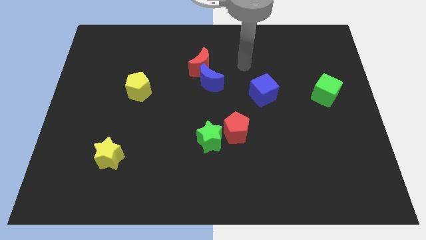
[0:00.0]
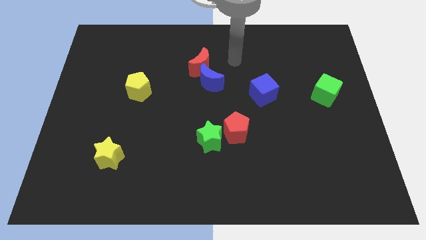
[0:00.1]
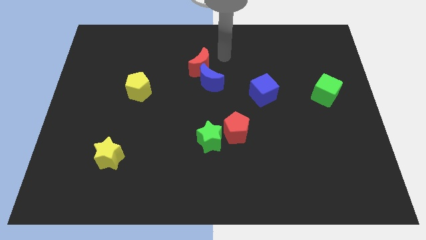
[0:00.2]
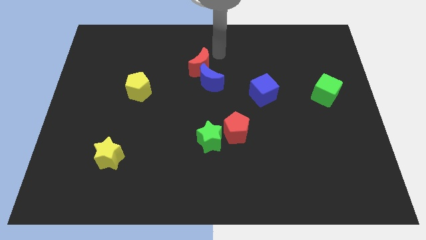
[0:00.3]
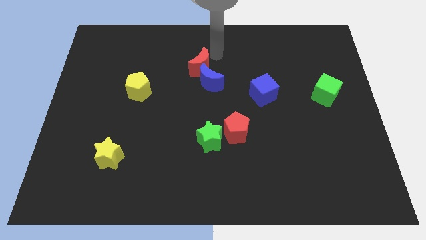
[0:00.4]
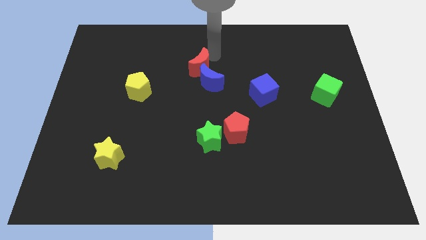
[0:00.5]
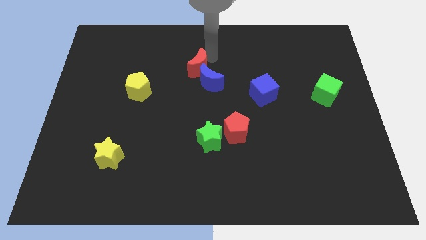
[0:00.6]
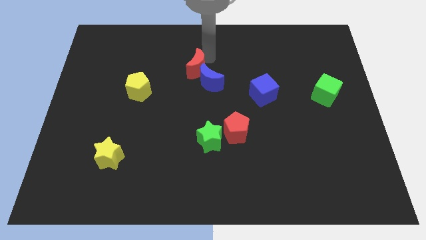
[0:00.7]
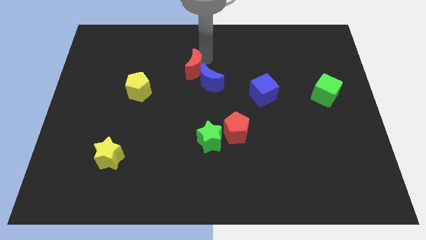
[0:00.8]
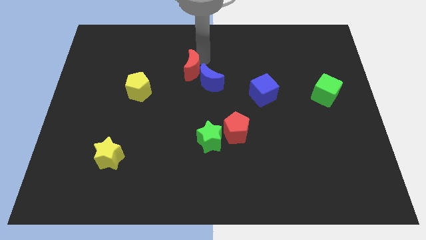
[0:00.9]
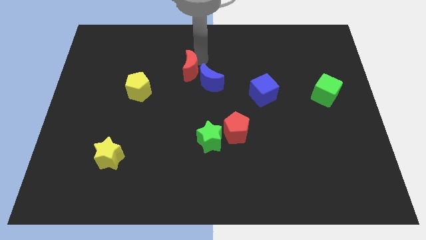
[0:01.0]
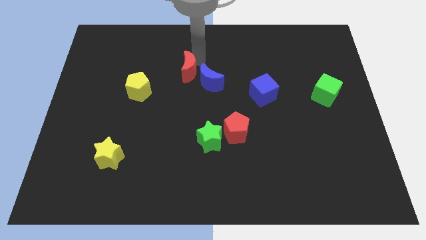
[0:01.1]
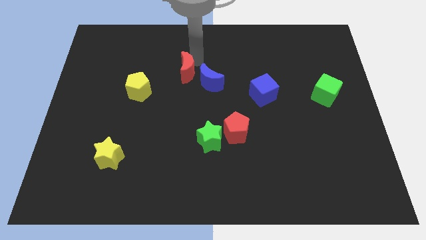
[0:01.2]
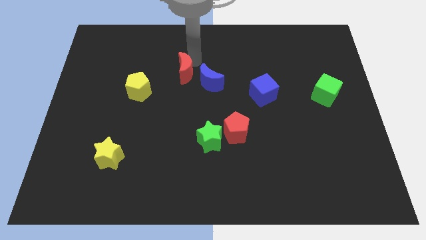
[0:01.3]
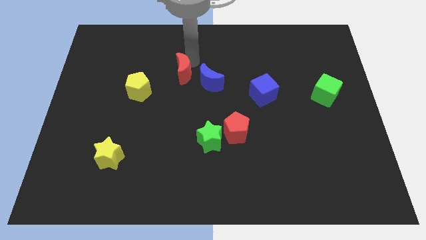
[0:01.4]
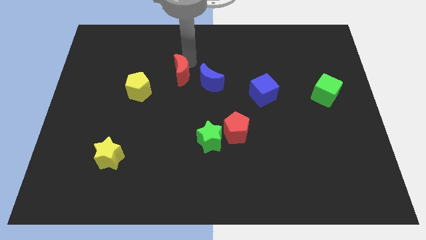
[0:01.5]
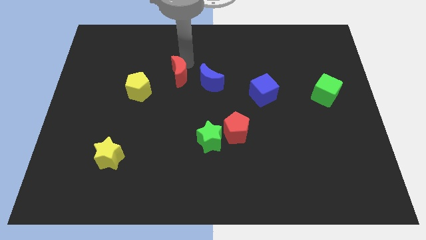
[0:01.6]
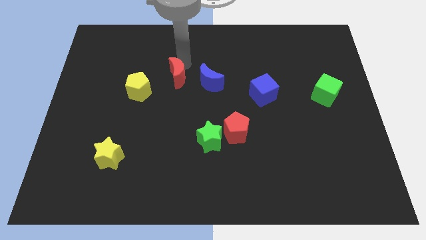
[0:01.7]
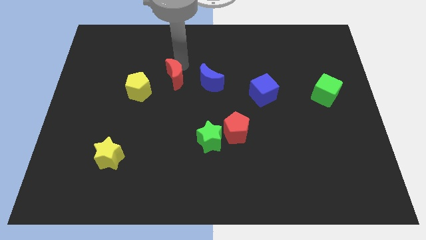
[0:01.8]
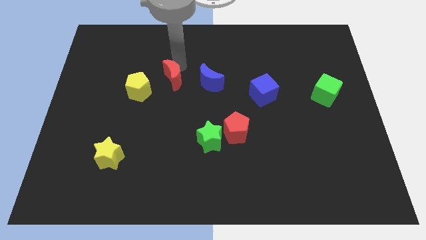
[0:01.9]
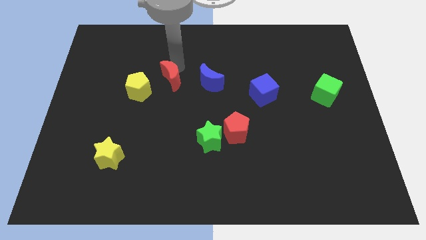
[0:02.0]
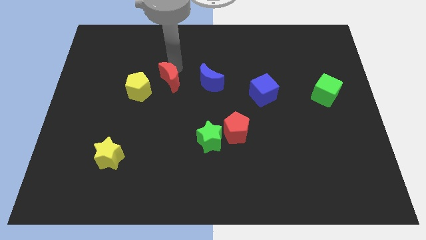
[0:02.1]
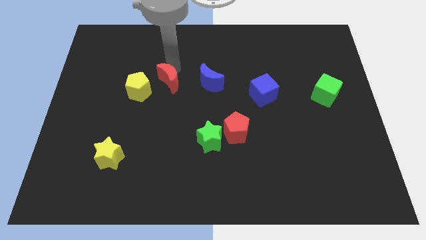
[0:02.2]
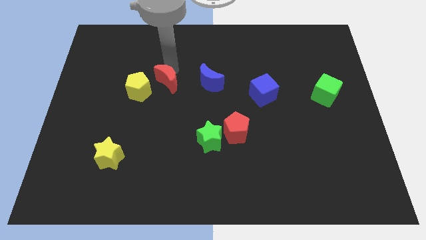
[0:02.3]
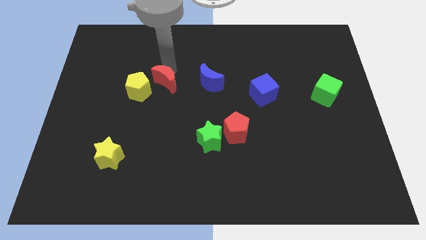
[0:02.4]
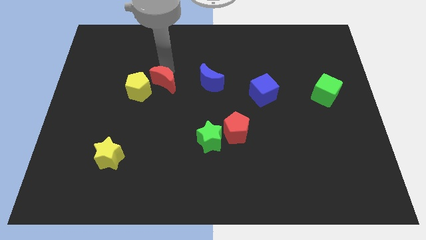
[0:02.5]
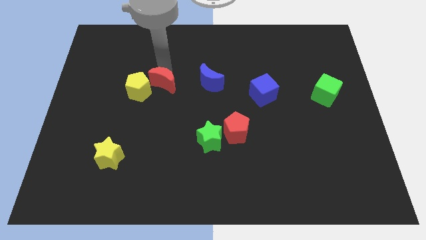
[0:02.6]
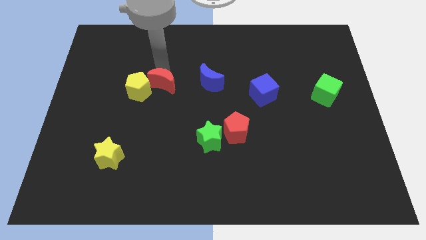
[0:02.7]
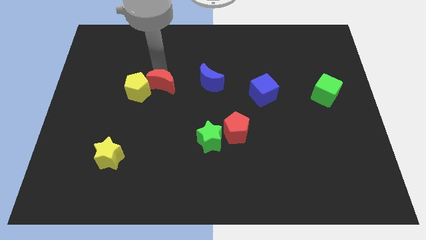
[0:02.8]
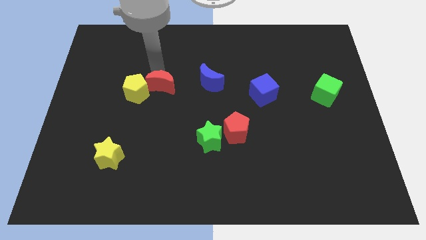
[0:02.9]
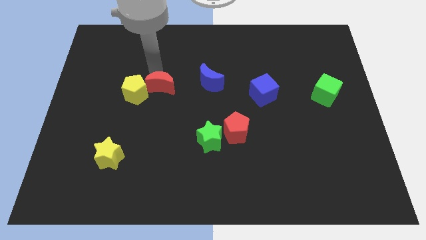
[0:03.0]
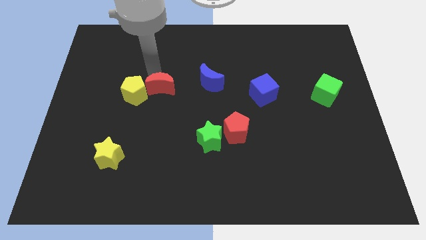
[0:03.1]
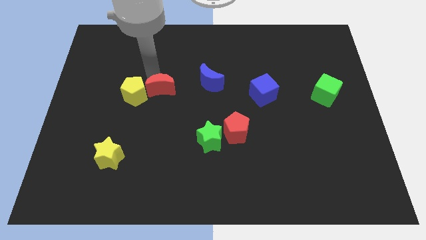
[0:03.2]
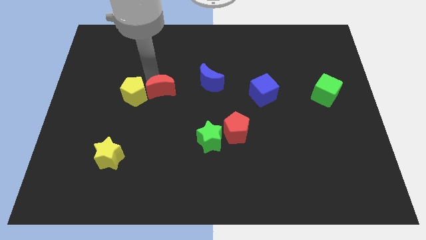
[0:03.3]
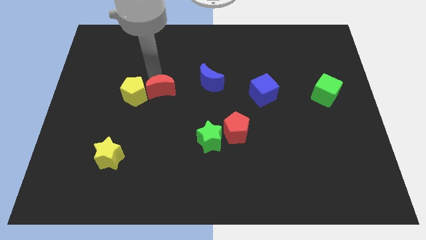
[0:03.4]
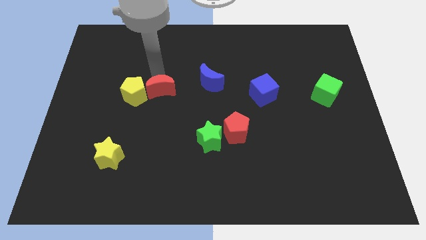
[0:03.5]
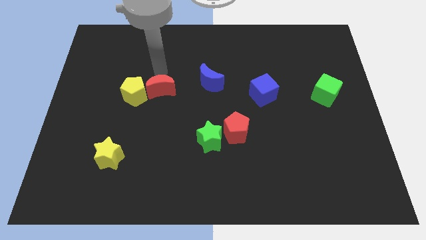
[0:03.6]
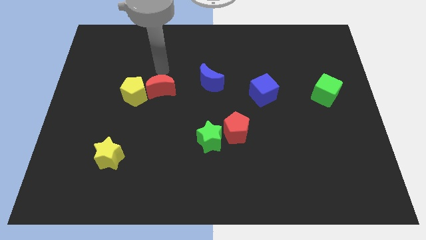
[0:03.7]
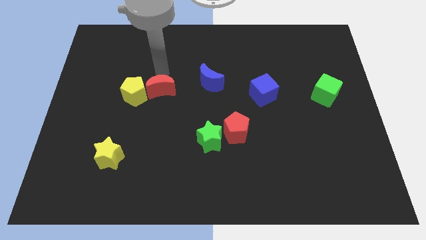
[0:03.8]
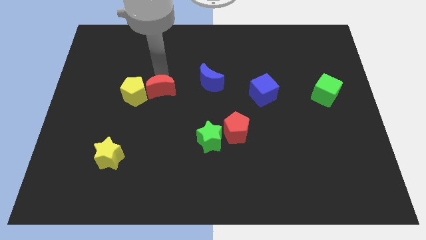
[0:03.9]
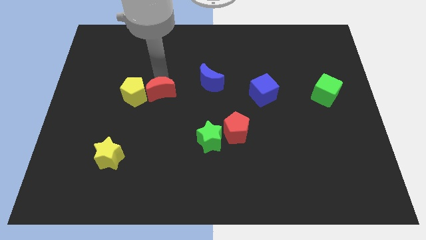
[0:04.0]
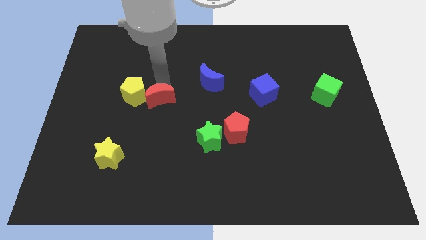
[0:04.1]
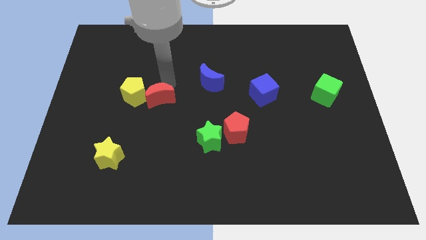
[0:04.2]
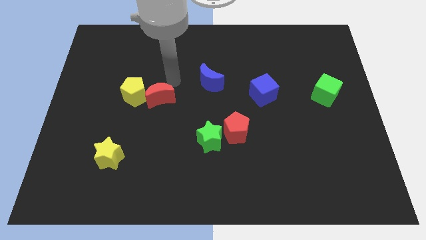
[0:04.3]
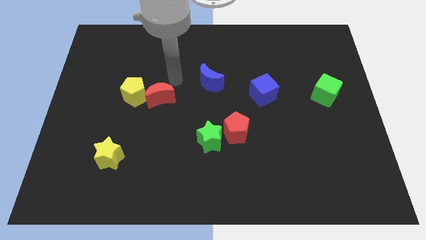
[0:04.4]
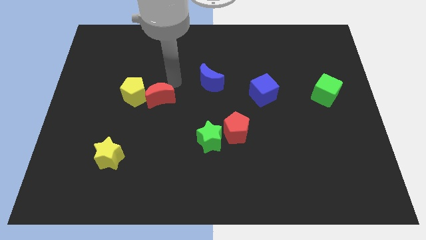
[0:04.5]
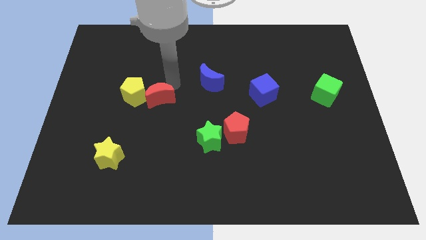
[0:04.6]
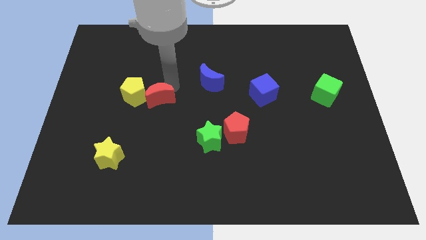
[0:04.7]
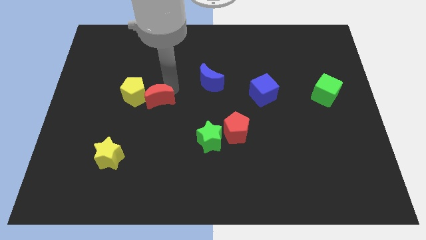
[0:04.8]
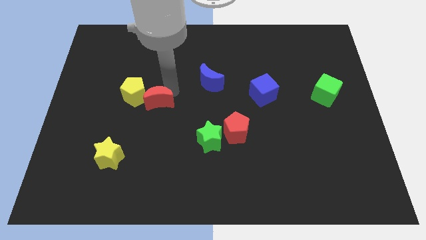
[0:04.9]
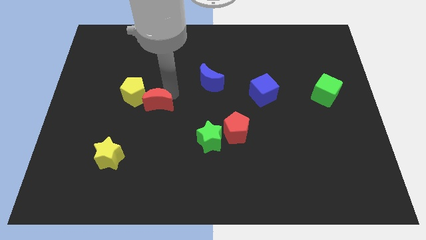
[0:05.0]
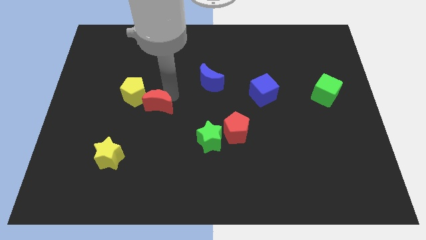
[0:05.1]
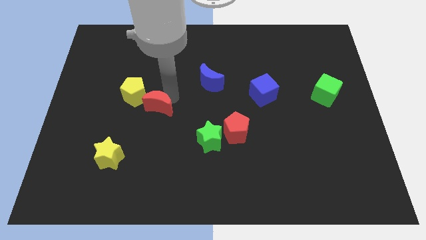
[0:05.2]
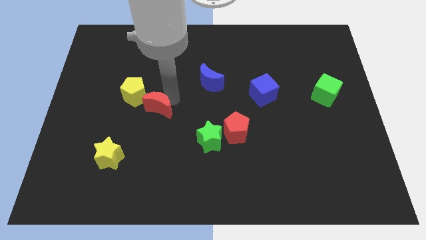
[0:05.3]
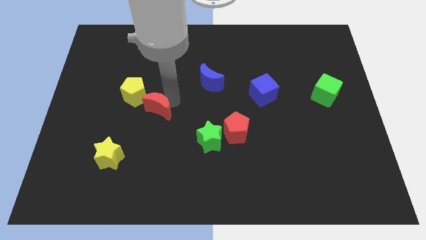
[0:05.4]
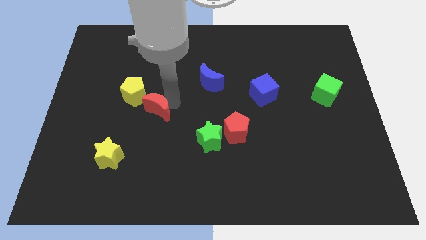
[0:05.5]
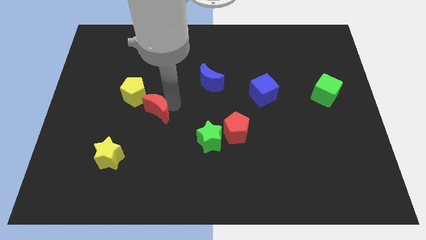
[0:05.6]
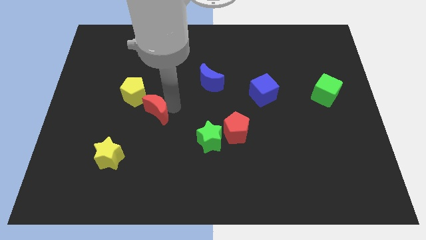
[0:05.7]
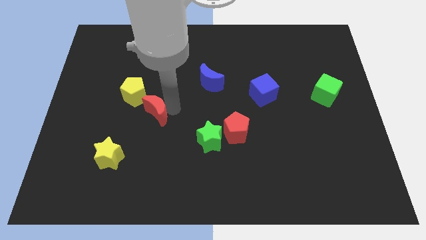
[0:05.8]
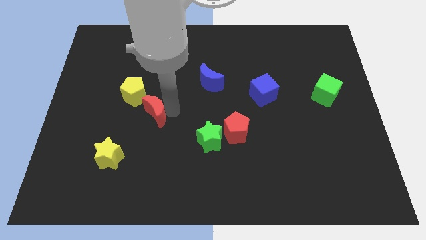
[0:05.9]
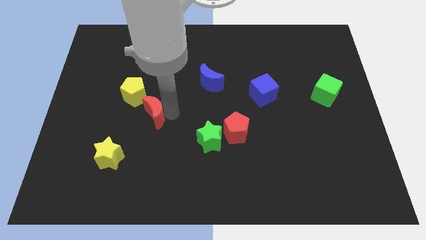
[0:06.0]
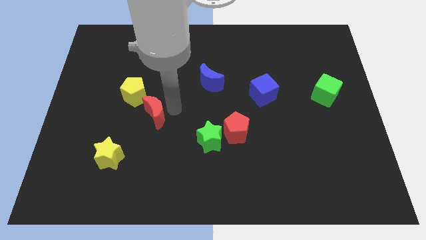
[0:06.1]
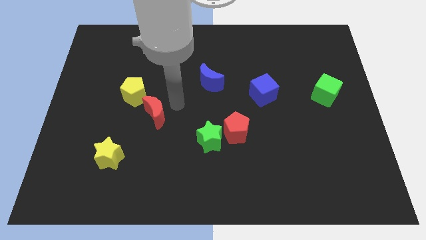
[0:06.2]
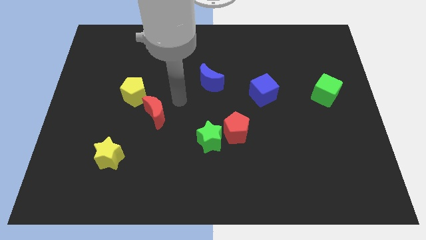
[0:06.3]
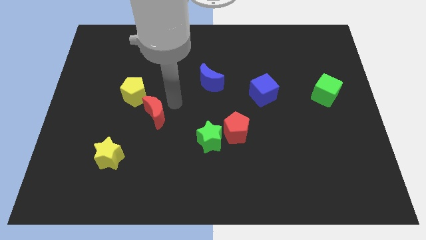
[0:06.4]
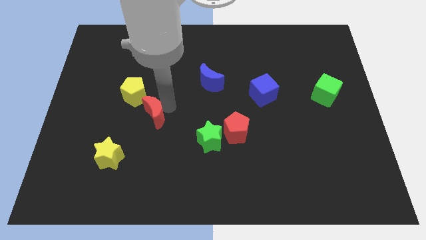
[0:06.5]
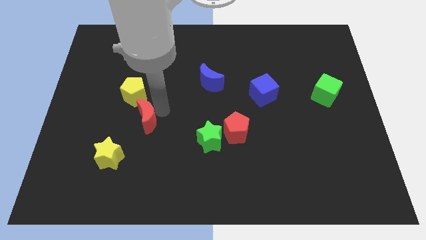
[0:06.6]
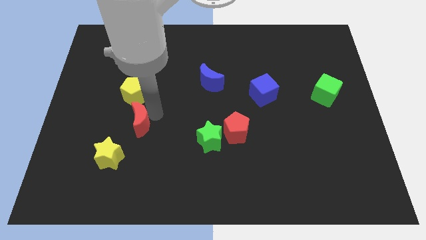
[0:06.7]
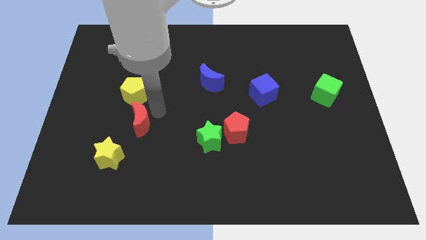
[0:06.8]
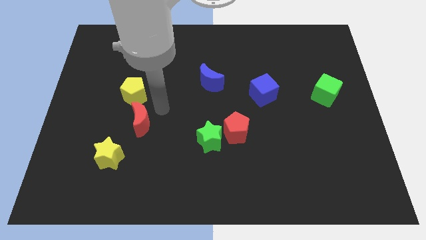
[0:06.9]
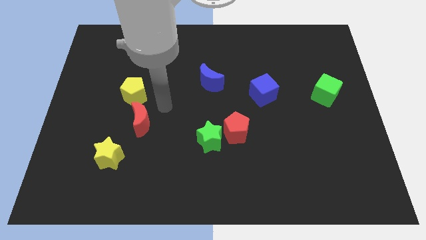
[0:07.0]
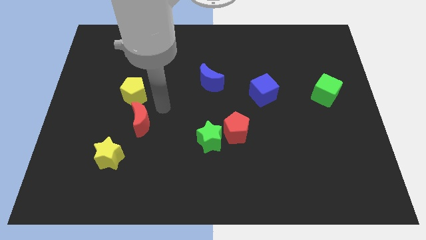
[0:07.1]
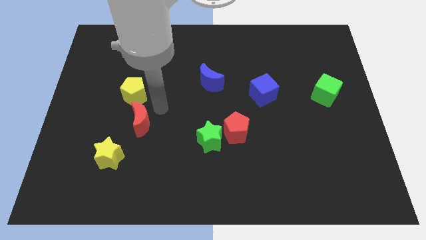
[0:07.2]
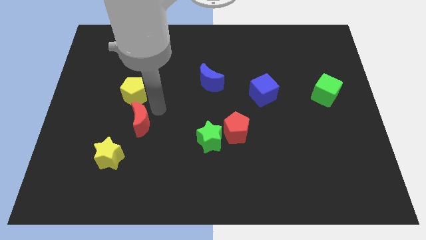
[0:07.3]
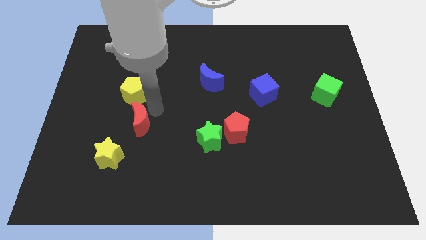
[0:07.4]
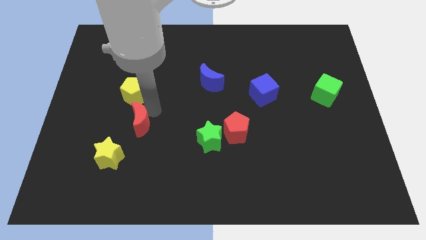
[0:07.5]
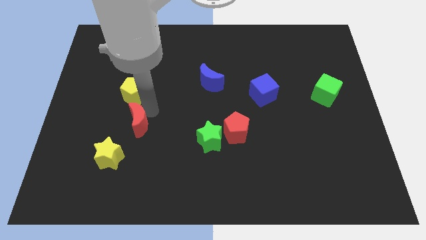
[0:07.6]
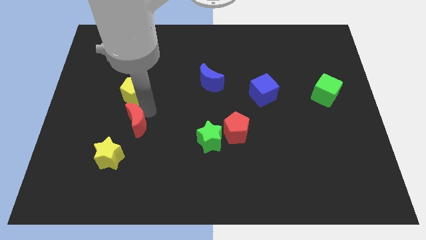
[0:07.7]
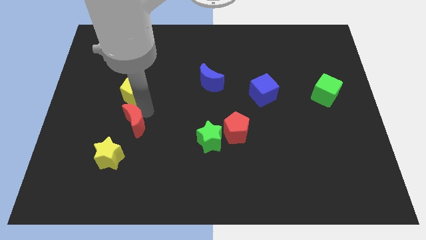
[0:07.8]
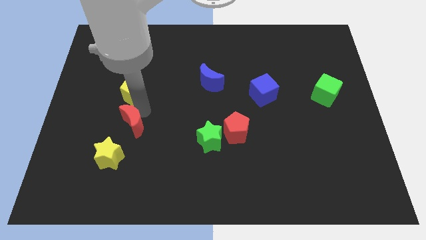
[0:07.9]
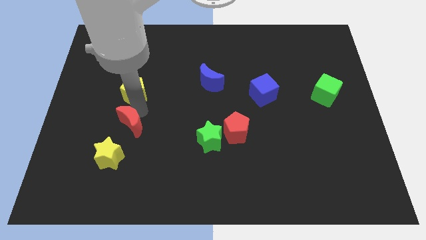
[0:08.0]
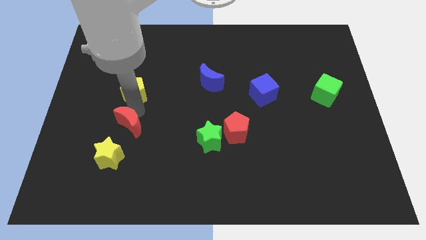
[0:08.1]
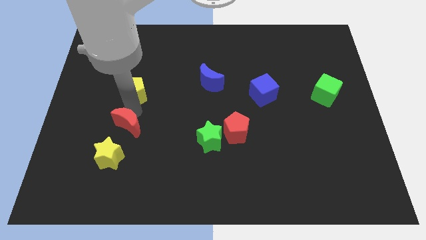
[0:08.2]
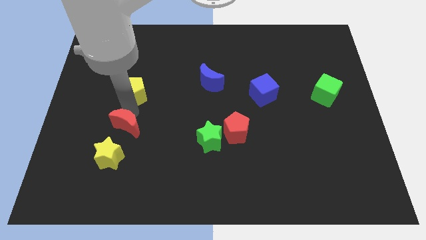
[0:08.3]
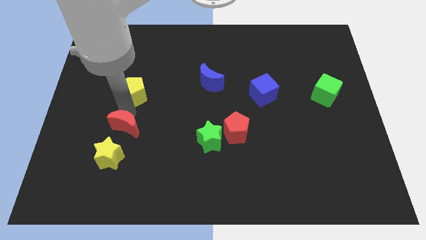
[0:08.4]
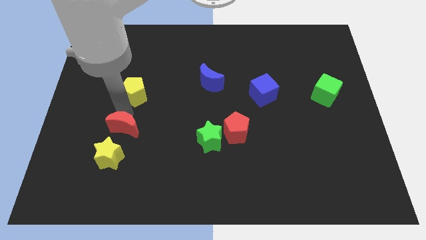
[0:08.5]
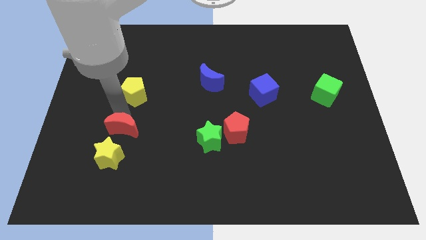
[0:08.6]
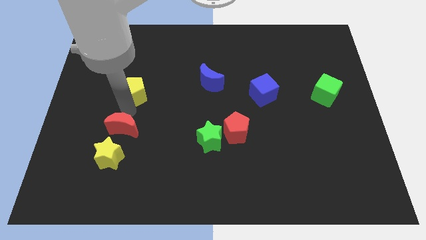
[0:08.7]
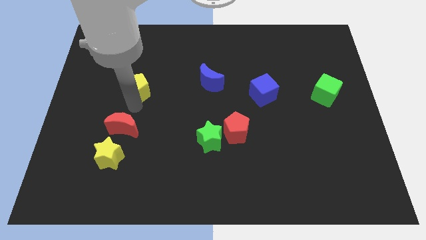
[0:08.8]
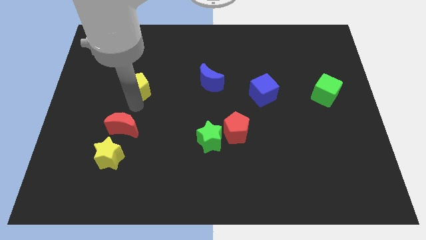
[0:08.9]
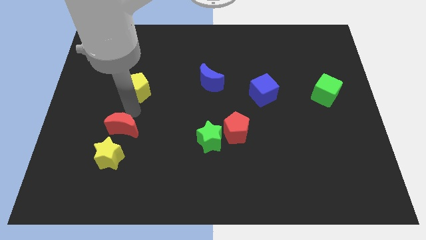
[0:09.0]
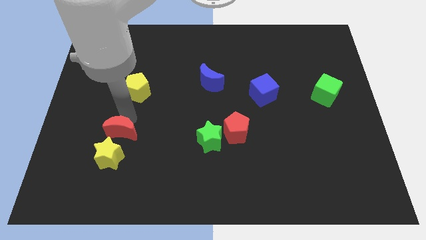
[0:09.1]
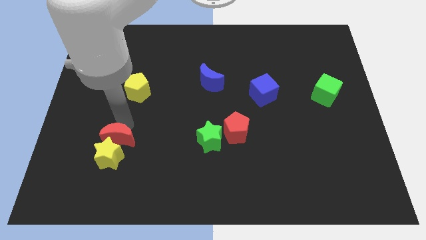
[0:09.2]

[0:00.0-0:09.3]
put the red moon to the yellow star
